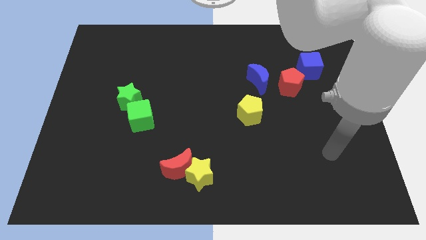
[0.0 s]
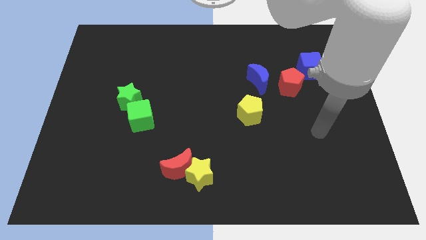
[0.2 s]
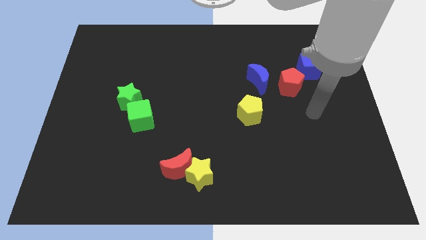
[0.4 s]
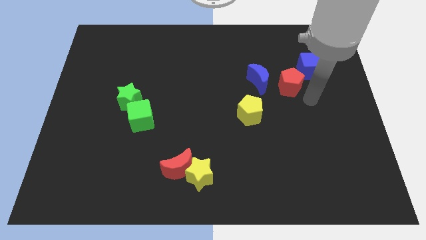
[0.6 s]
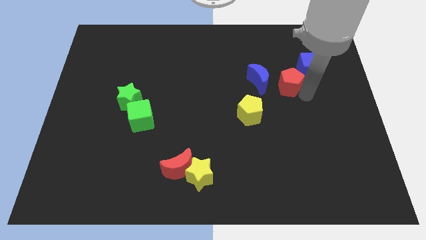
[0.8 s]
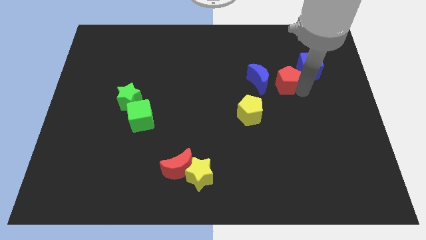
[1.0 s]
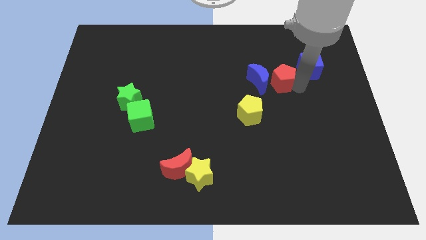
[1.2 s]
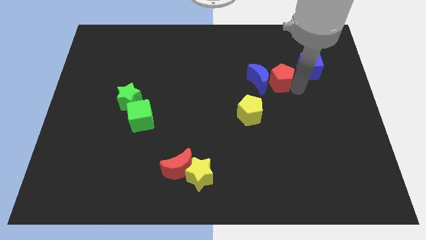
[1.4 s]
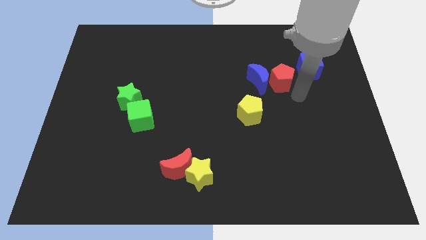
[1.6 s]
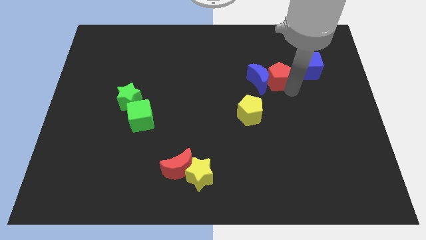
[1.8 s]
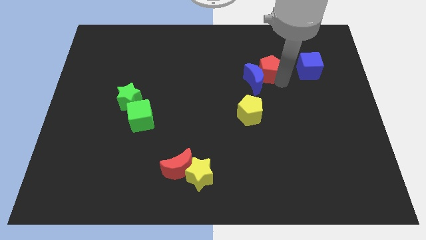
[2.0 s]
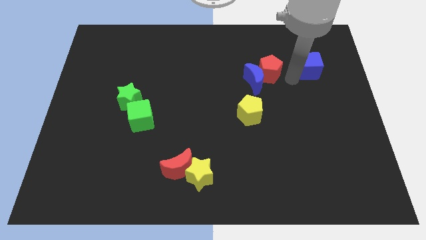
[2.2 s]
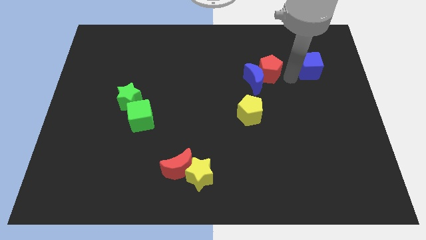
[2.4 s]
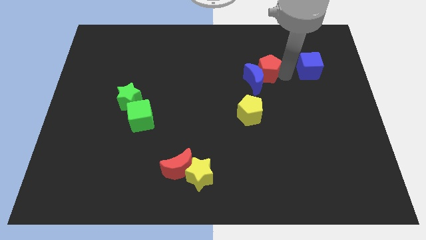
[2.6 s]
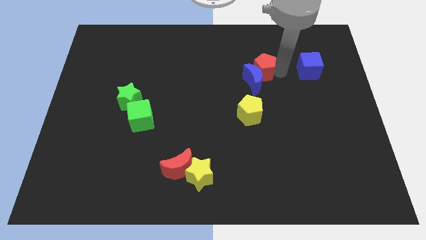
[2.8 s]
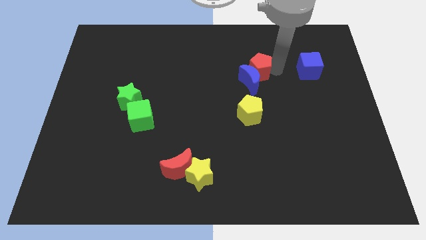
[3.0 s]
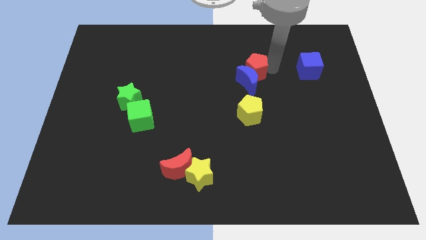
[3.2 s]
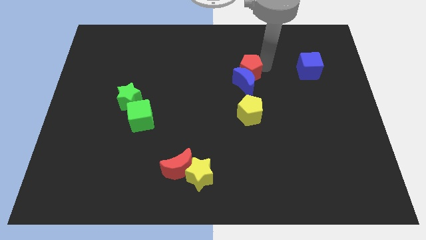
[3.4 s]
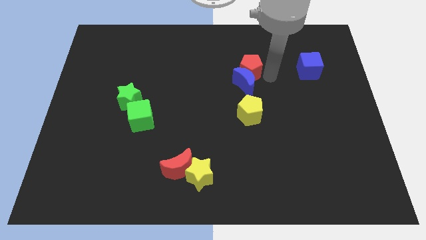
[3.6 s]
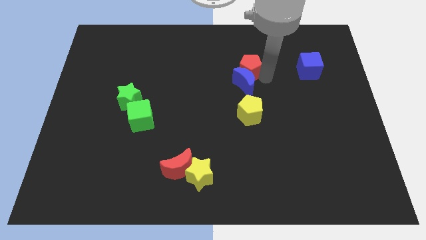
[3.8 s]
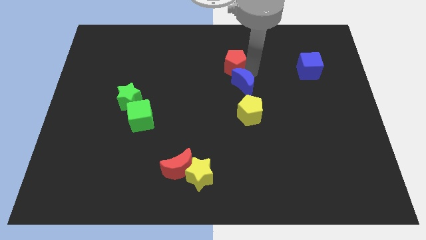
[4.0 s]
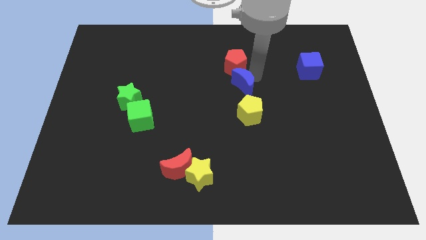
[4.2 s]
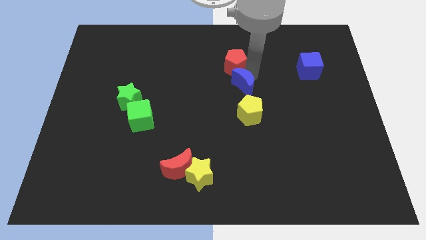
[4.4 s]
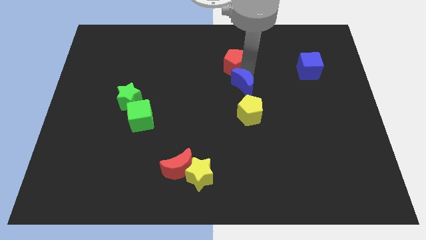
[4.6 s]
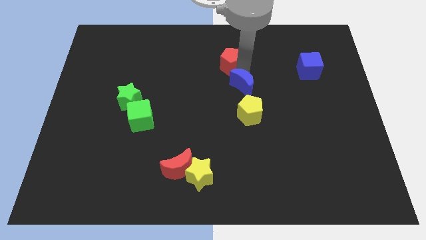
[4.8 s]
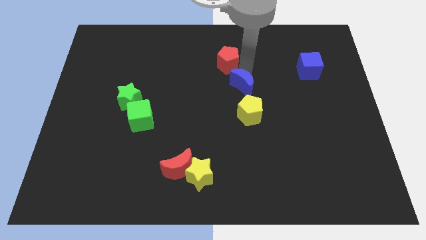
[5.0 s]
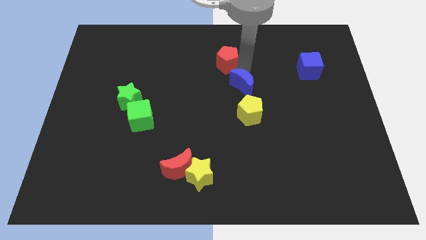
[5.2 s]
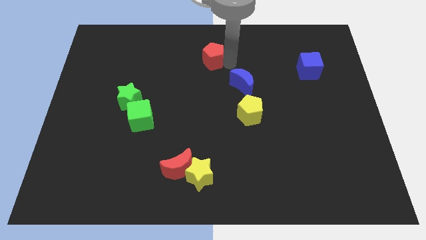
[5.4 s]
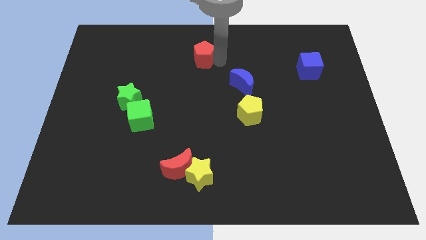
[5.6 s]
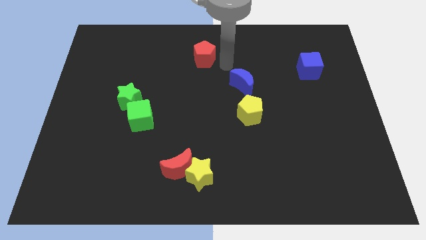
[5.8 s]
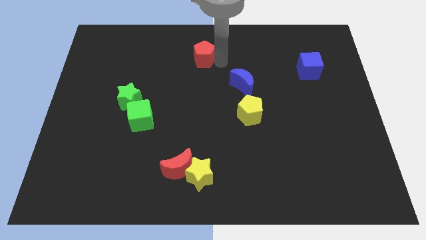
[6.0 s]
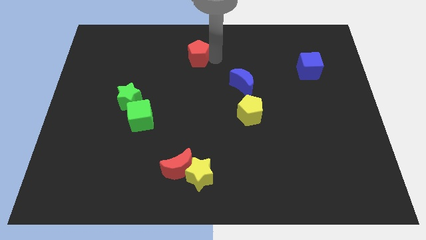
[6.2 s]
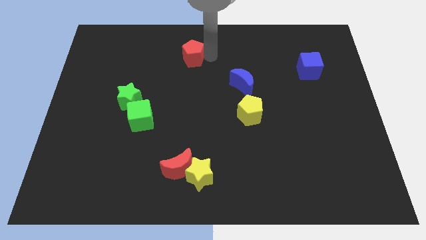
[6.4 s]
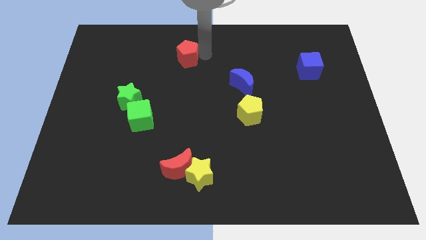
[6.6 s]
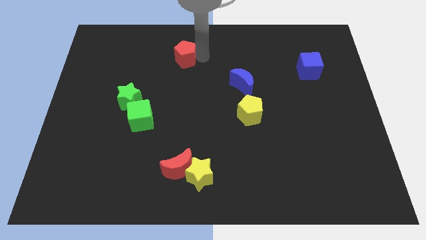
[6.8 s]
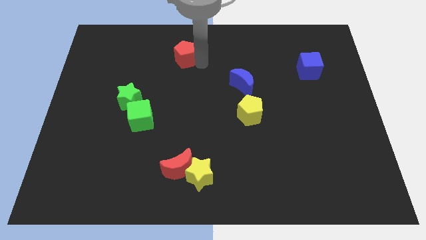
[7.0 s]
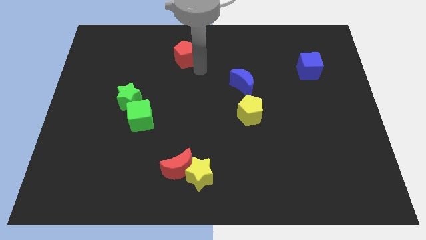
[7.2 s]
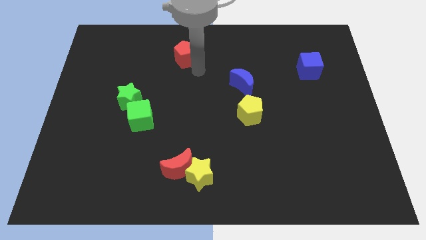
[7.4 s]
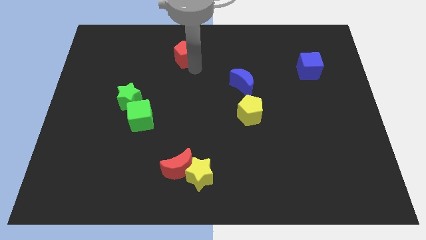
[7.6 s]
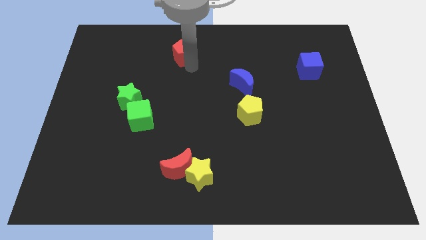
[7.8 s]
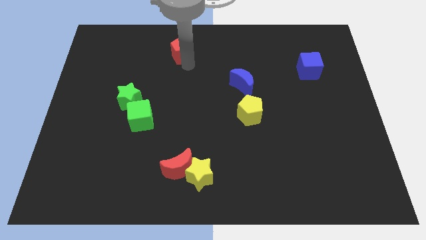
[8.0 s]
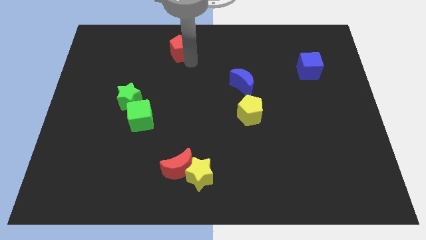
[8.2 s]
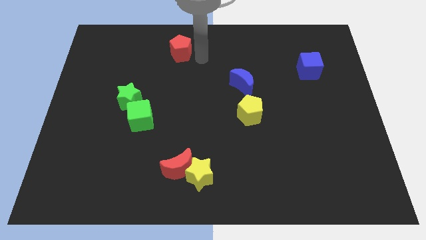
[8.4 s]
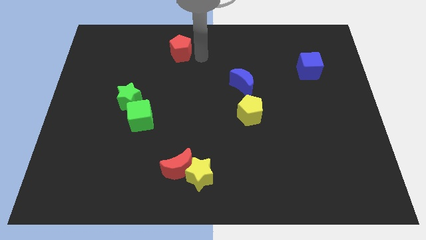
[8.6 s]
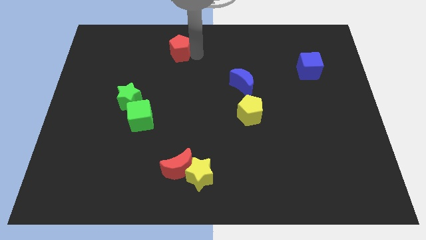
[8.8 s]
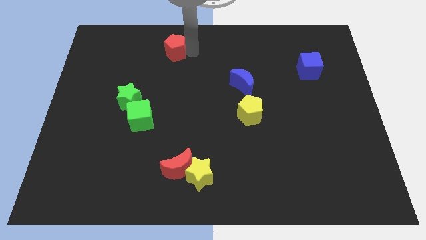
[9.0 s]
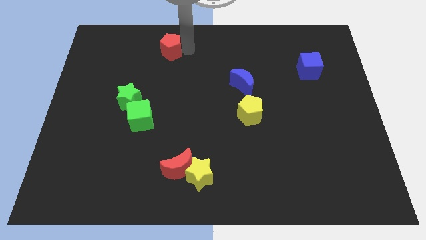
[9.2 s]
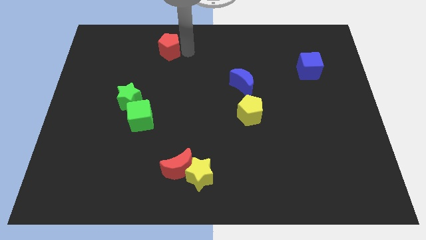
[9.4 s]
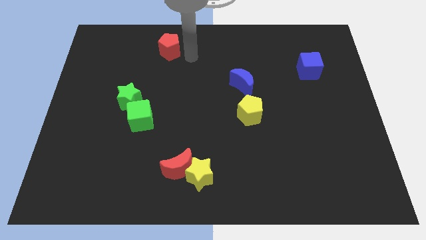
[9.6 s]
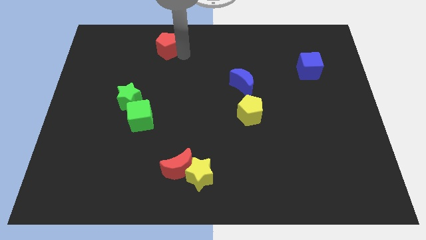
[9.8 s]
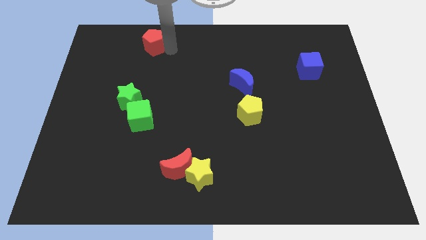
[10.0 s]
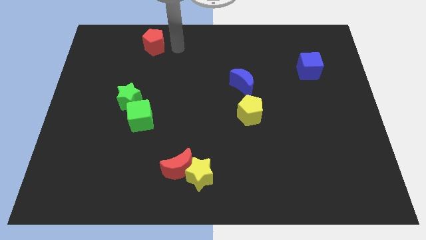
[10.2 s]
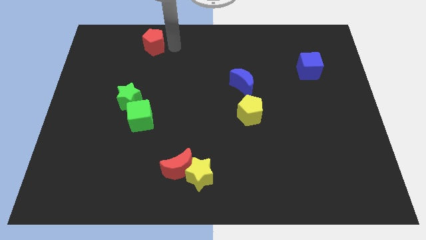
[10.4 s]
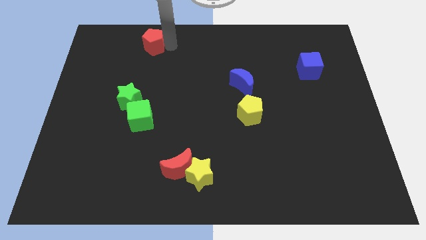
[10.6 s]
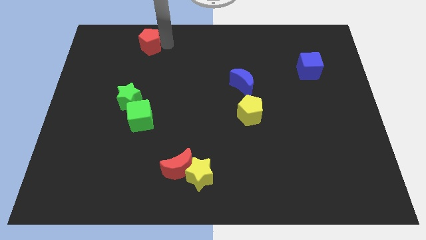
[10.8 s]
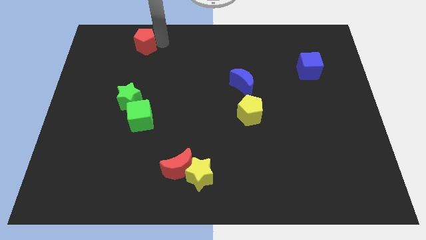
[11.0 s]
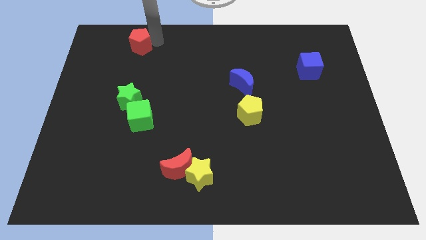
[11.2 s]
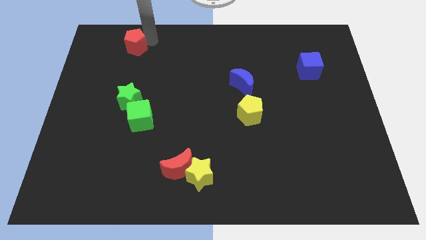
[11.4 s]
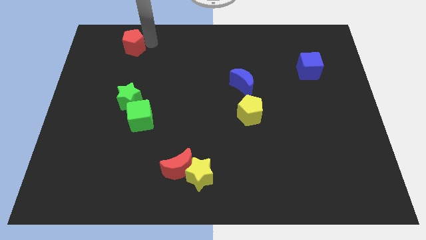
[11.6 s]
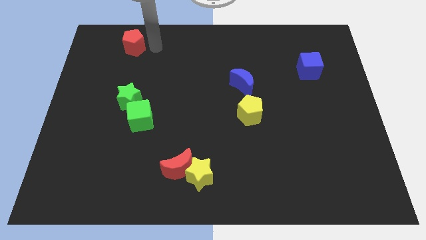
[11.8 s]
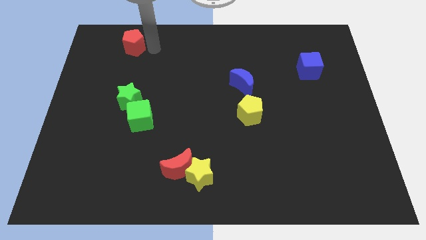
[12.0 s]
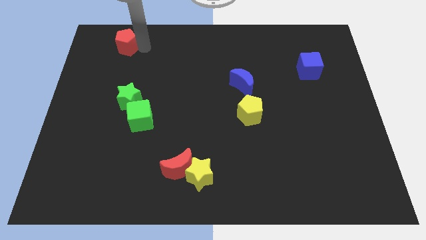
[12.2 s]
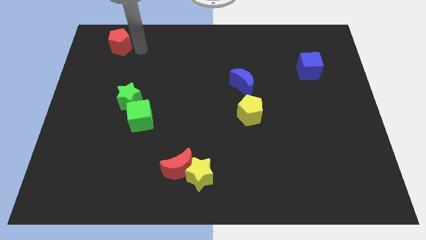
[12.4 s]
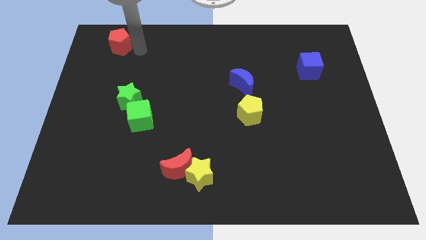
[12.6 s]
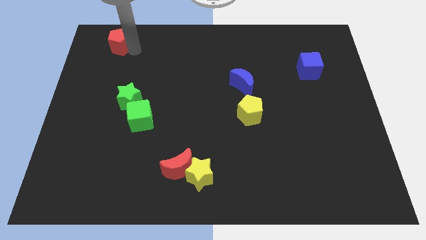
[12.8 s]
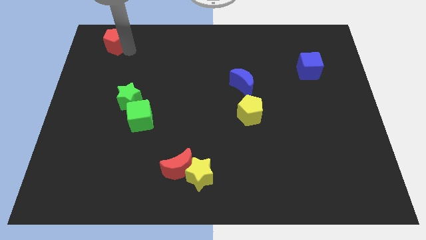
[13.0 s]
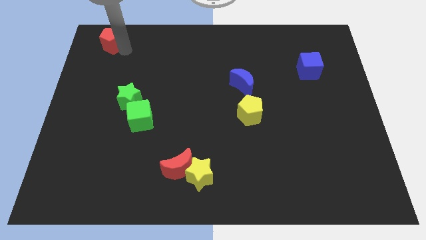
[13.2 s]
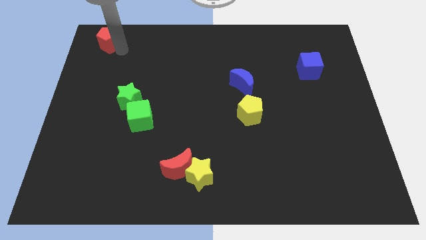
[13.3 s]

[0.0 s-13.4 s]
put the red pentagon to the upper left corner

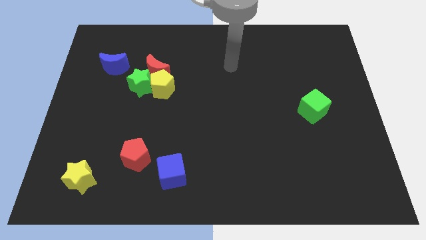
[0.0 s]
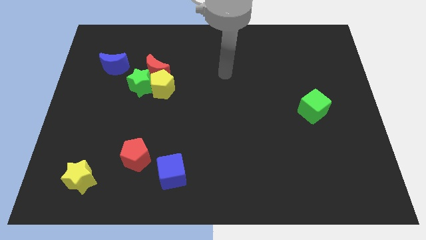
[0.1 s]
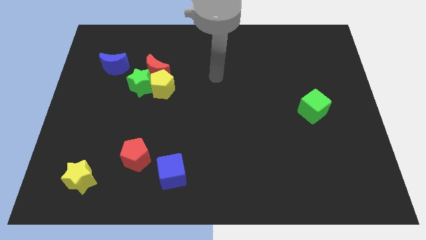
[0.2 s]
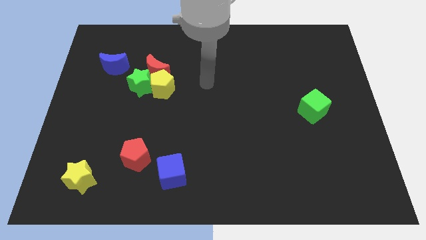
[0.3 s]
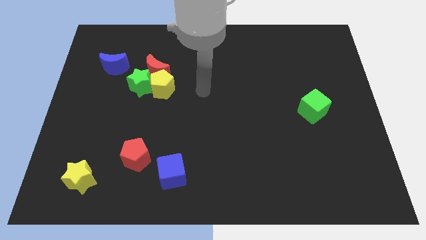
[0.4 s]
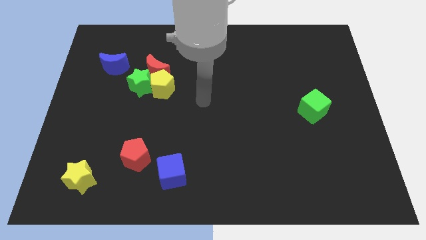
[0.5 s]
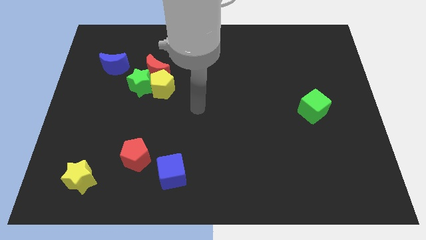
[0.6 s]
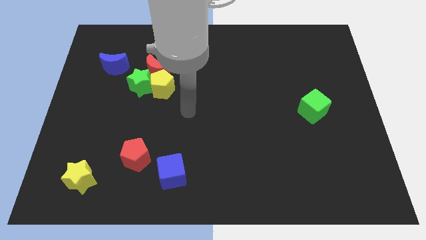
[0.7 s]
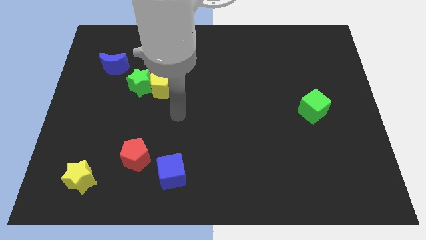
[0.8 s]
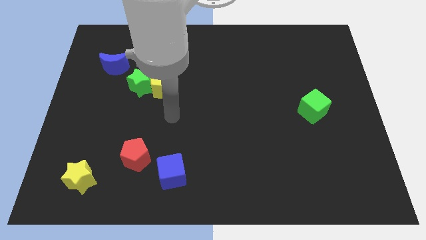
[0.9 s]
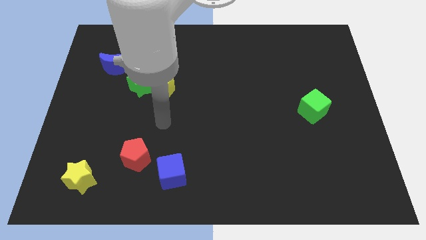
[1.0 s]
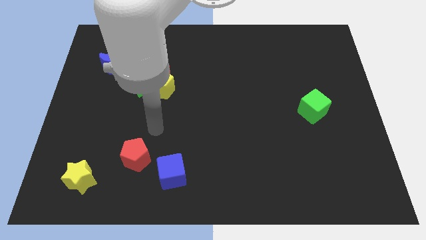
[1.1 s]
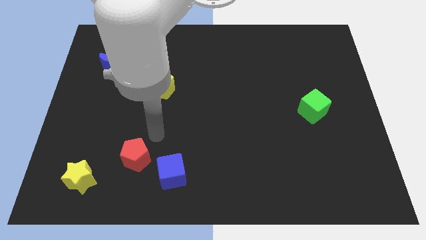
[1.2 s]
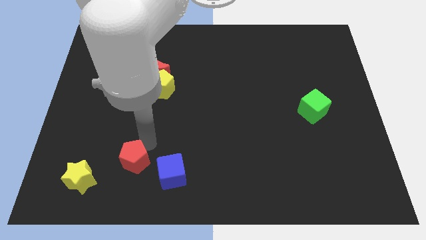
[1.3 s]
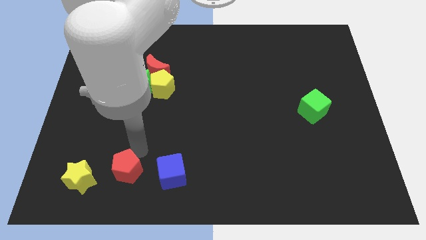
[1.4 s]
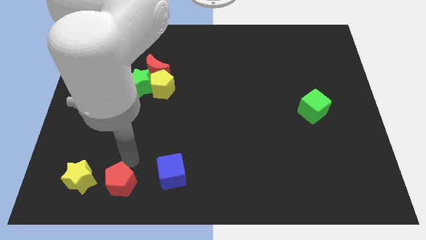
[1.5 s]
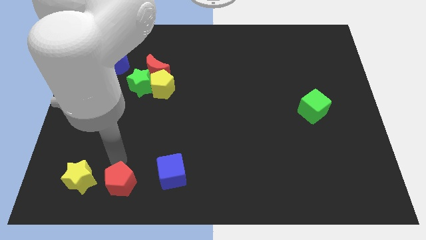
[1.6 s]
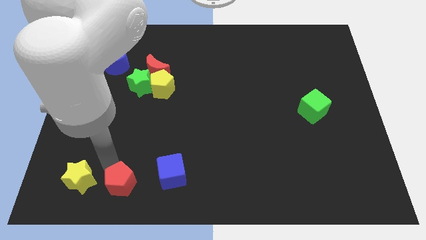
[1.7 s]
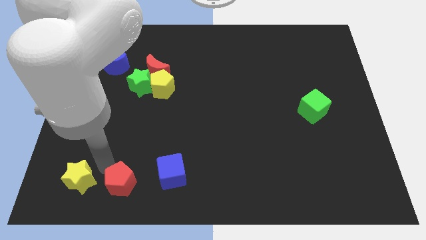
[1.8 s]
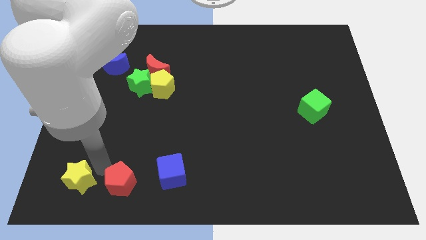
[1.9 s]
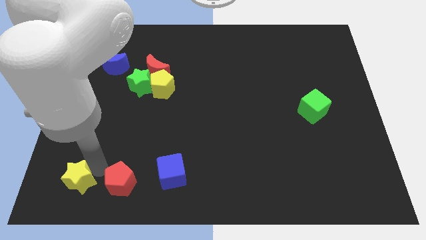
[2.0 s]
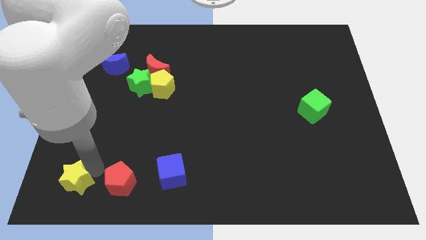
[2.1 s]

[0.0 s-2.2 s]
move the yellow star to the lower left corner
